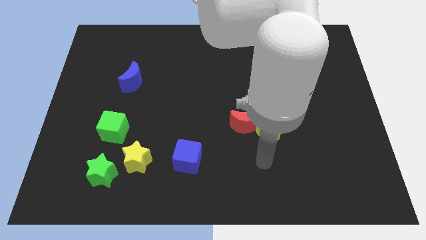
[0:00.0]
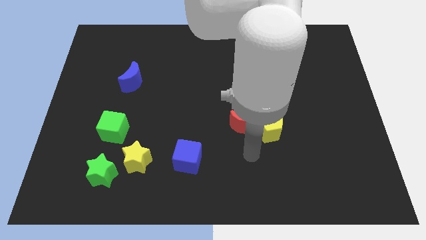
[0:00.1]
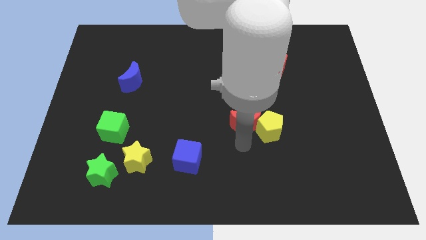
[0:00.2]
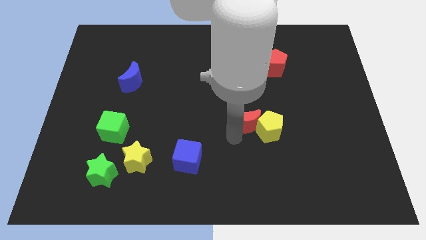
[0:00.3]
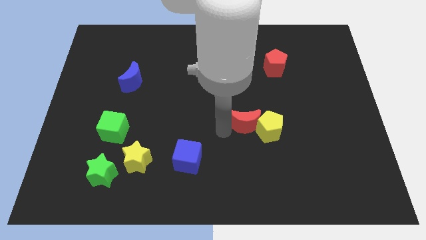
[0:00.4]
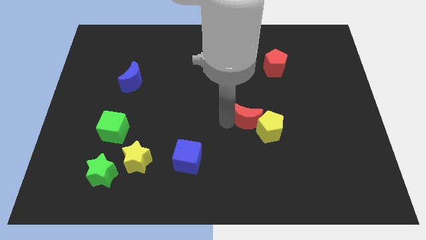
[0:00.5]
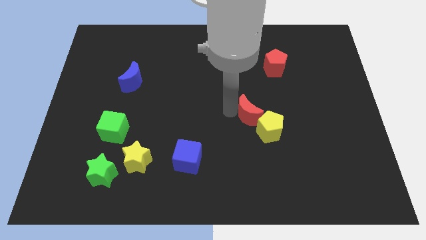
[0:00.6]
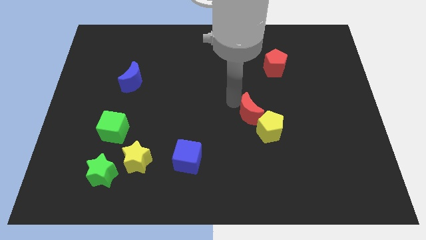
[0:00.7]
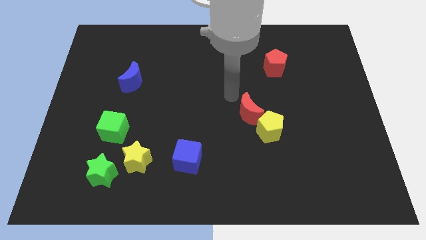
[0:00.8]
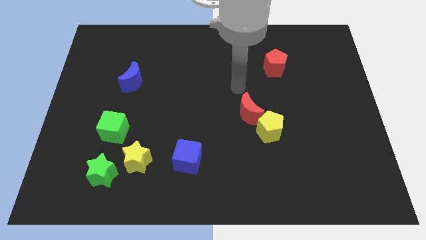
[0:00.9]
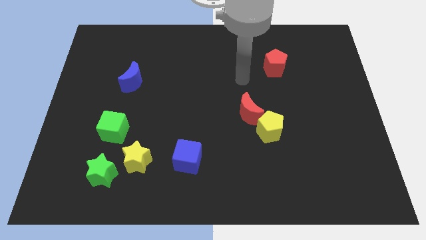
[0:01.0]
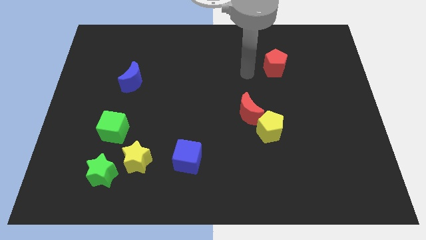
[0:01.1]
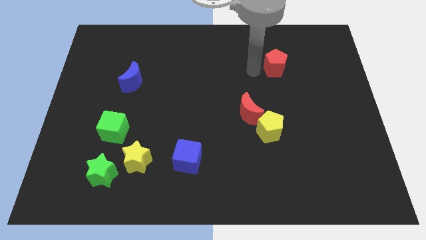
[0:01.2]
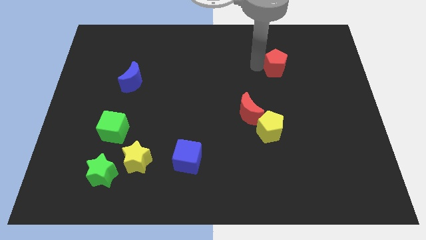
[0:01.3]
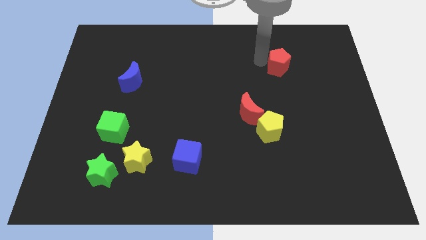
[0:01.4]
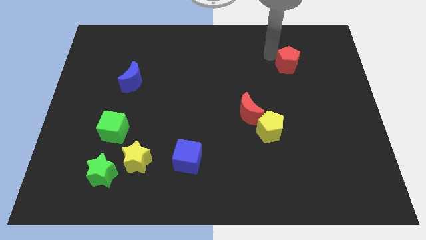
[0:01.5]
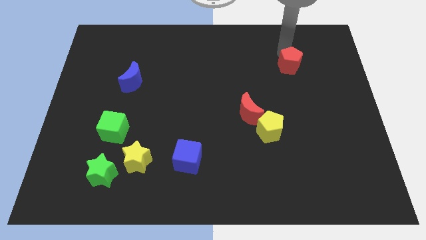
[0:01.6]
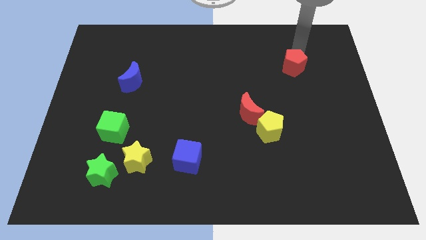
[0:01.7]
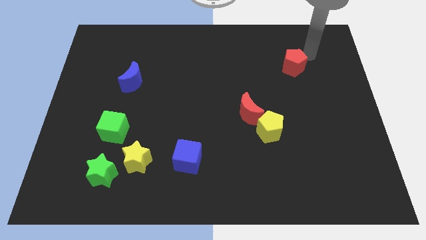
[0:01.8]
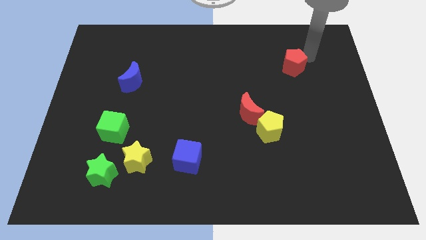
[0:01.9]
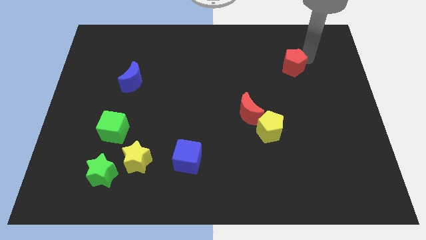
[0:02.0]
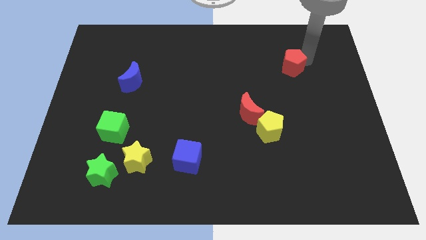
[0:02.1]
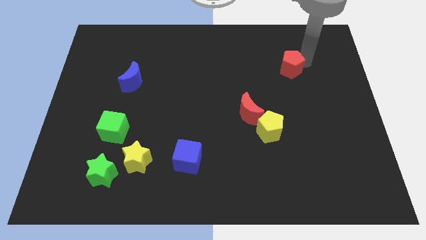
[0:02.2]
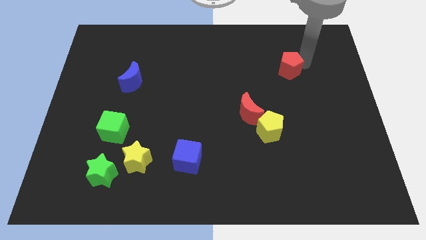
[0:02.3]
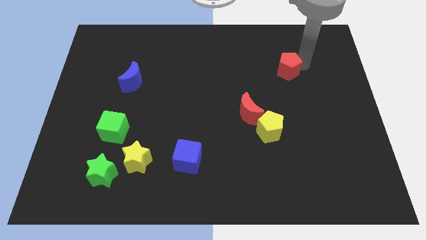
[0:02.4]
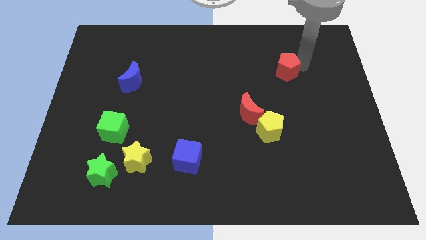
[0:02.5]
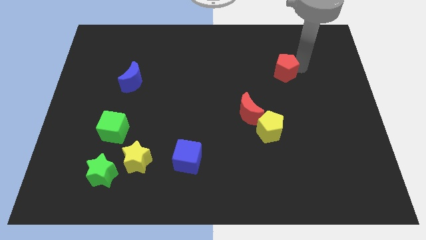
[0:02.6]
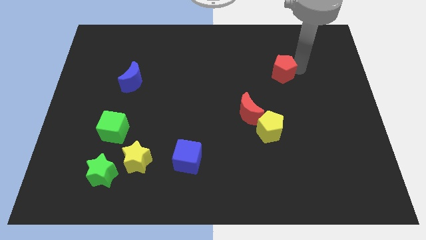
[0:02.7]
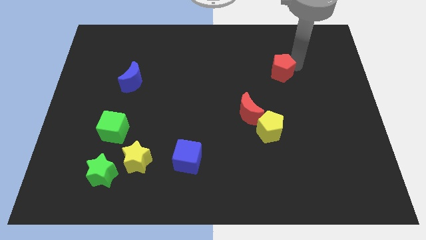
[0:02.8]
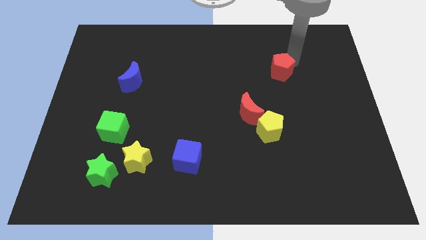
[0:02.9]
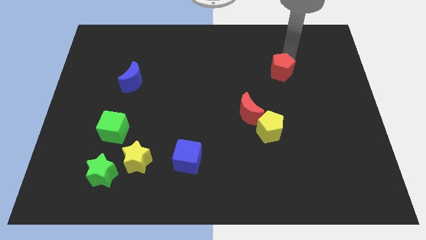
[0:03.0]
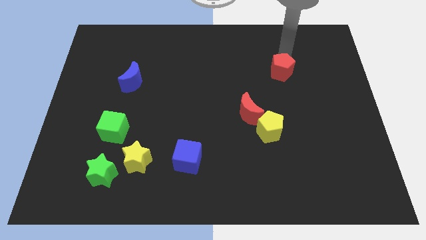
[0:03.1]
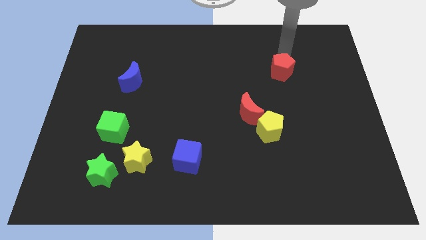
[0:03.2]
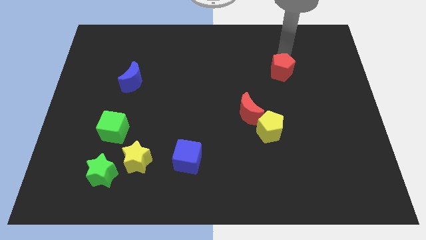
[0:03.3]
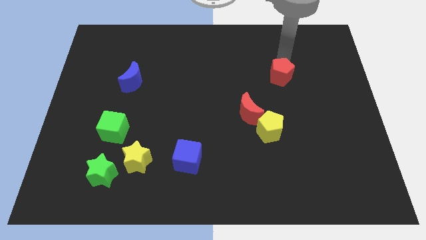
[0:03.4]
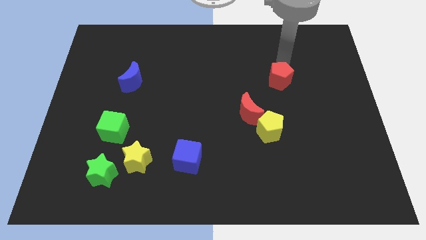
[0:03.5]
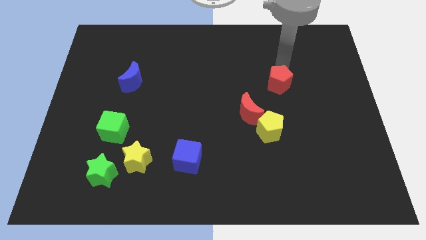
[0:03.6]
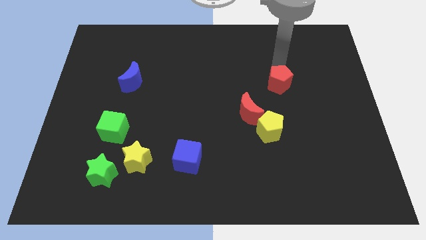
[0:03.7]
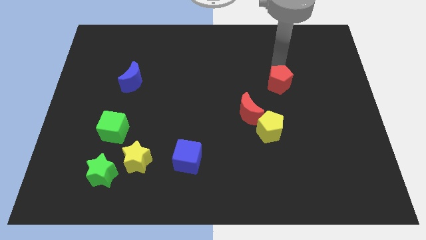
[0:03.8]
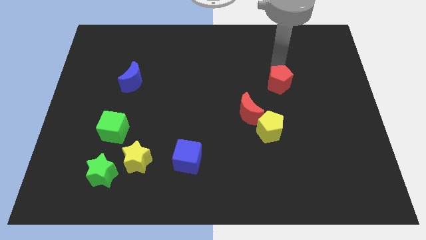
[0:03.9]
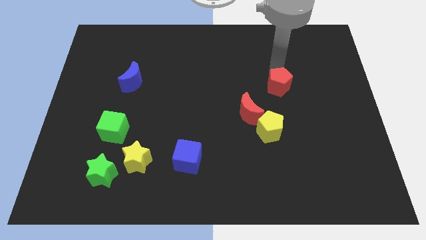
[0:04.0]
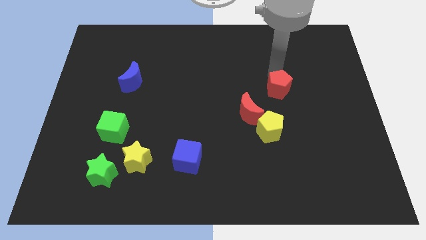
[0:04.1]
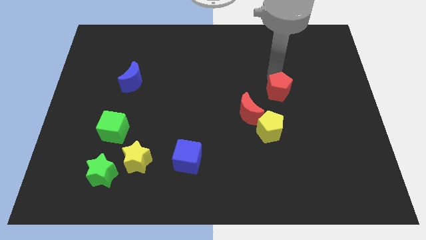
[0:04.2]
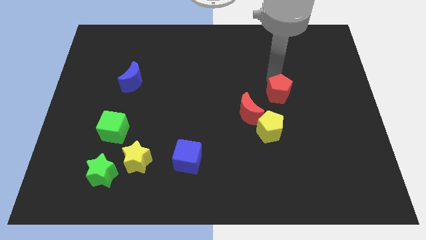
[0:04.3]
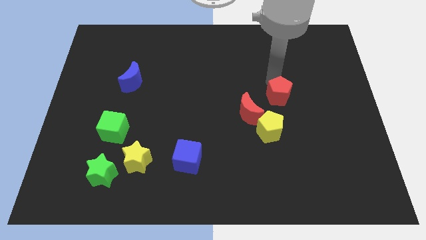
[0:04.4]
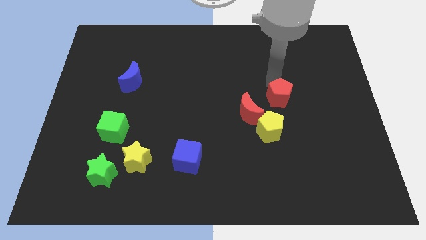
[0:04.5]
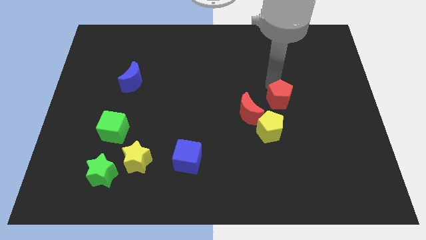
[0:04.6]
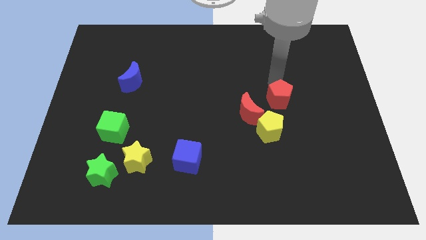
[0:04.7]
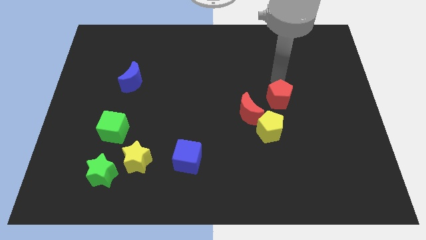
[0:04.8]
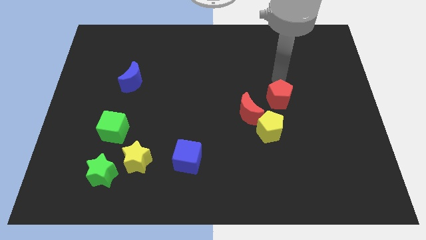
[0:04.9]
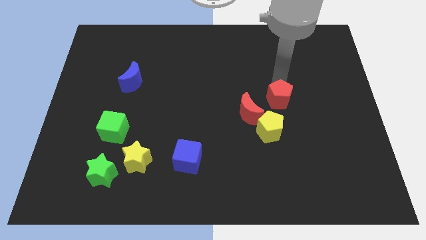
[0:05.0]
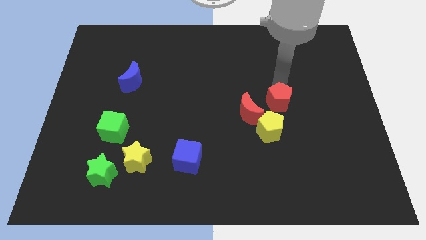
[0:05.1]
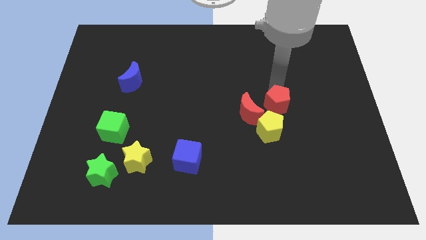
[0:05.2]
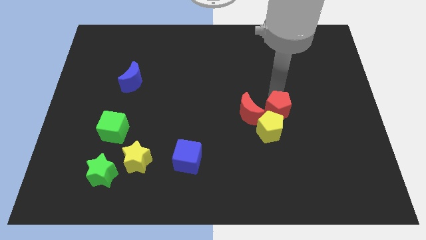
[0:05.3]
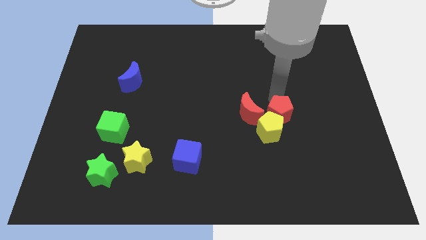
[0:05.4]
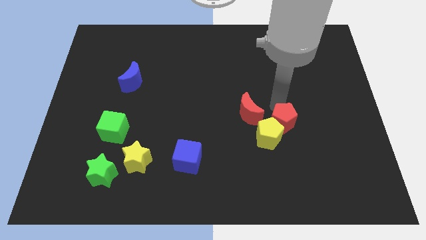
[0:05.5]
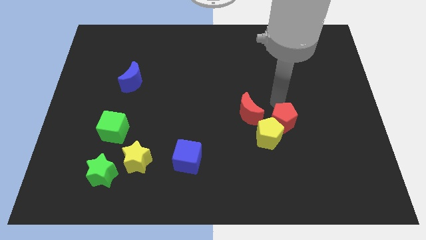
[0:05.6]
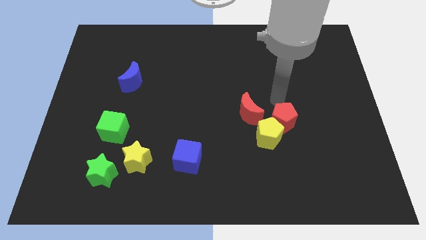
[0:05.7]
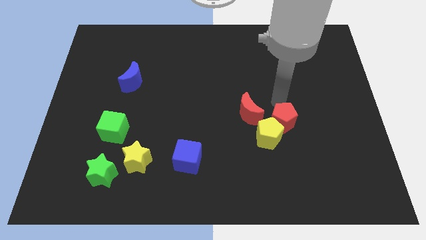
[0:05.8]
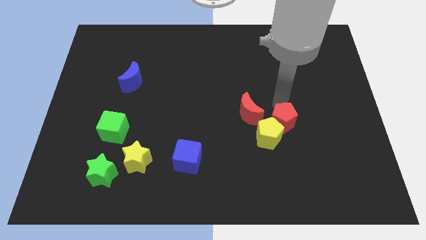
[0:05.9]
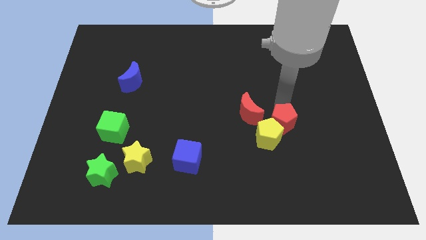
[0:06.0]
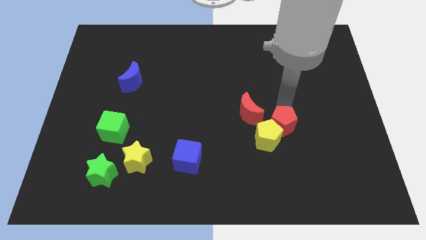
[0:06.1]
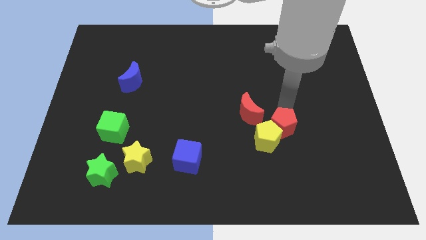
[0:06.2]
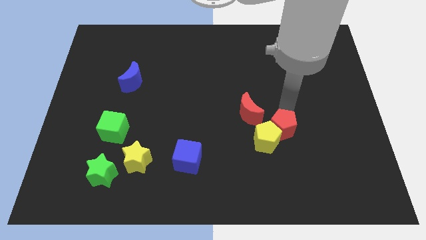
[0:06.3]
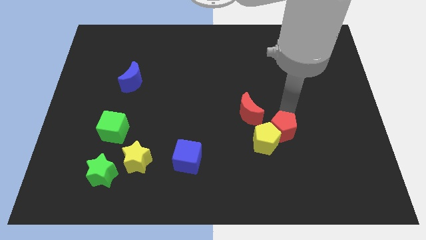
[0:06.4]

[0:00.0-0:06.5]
slide the red pentagon downwards

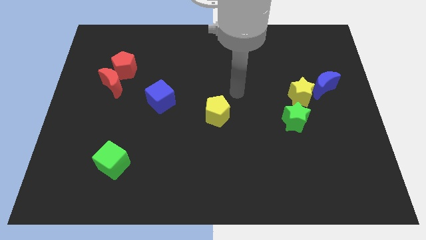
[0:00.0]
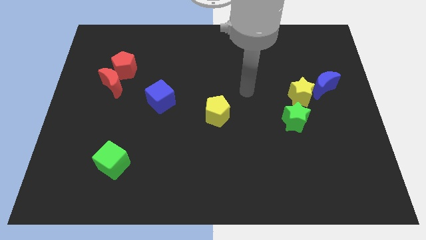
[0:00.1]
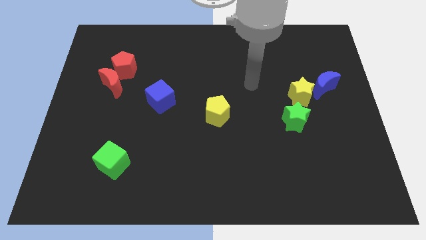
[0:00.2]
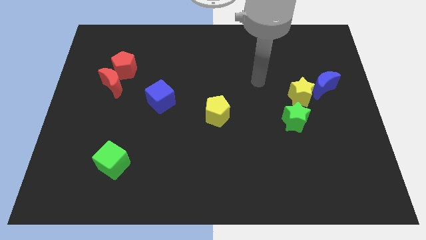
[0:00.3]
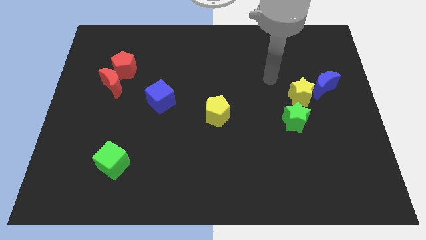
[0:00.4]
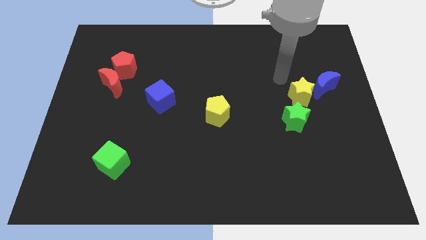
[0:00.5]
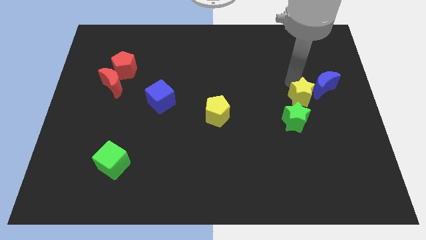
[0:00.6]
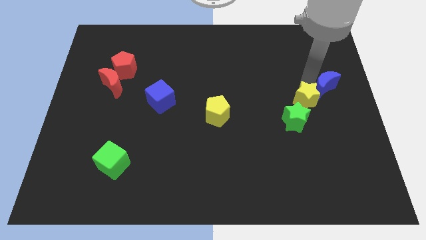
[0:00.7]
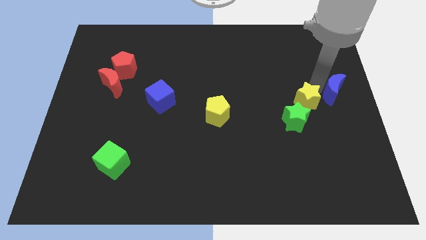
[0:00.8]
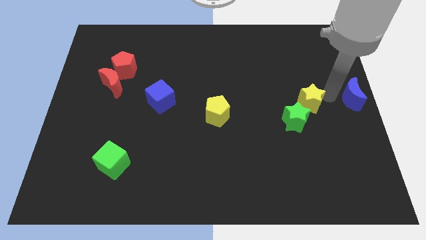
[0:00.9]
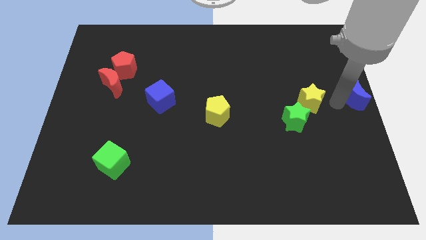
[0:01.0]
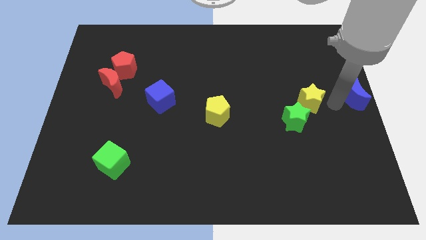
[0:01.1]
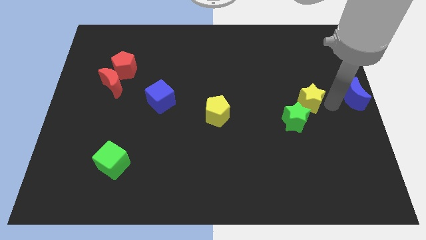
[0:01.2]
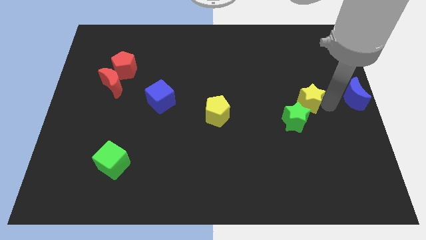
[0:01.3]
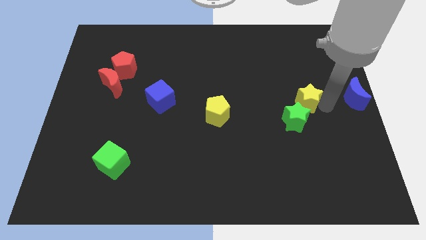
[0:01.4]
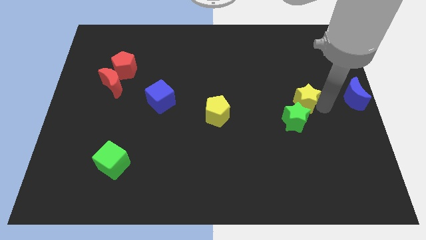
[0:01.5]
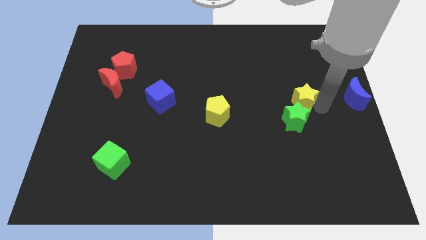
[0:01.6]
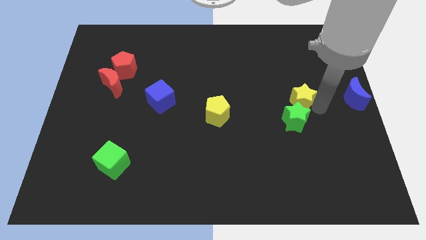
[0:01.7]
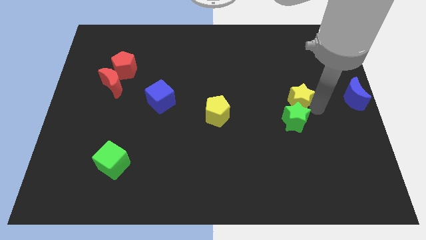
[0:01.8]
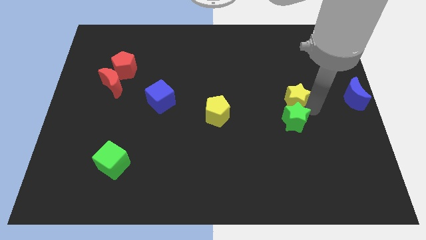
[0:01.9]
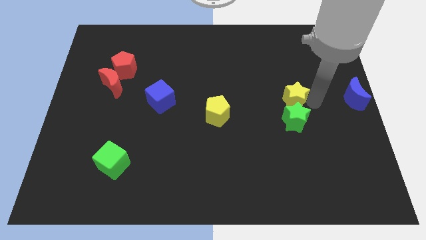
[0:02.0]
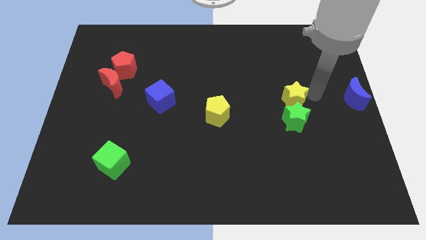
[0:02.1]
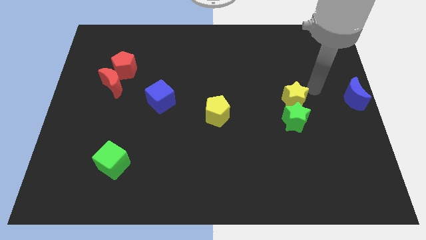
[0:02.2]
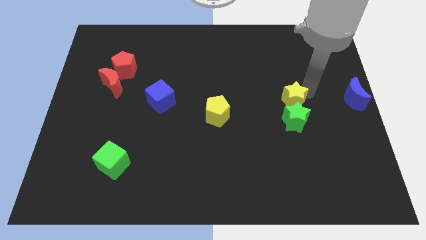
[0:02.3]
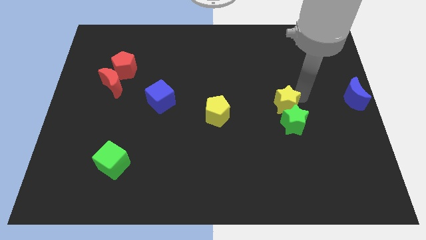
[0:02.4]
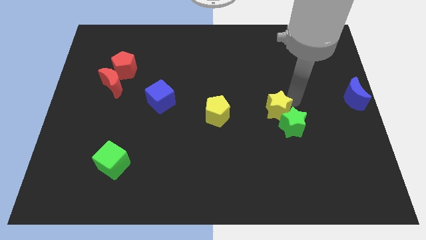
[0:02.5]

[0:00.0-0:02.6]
move the yellow star downwards and left a little
